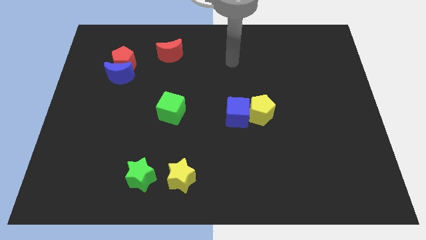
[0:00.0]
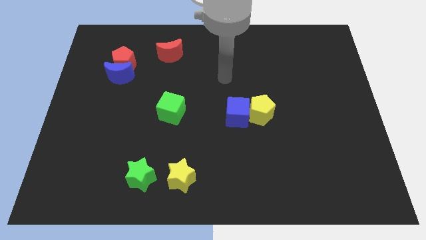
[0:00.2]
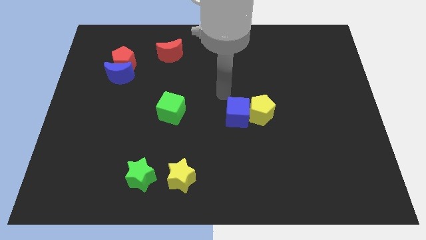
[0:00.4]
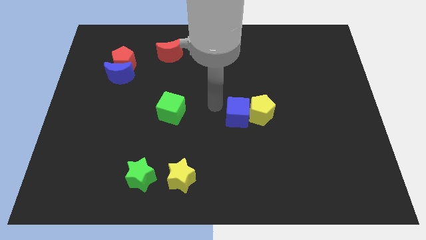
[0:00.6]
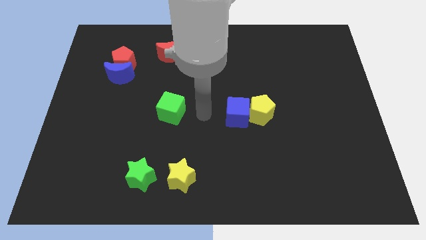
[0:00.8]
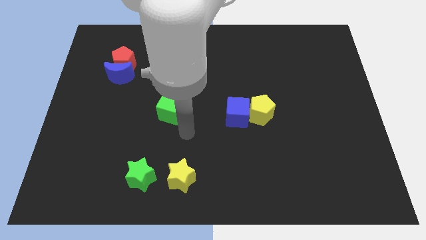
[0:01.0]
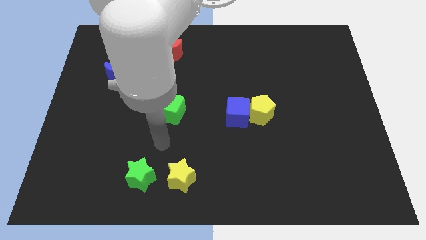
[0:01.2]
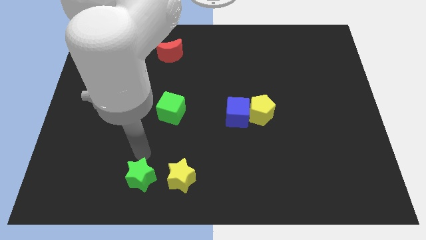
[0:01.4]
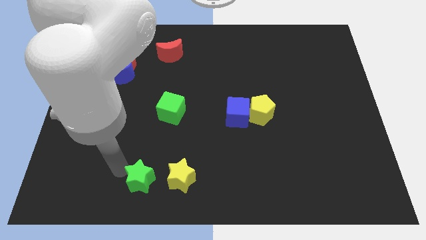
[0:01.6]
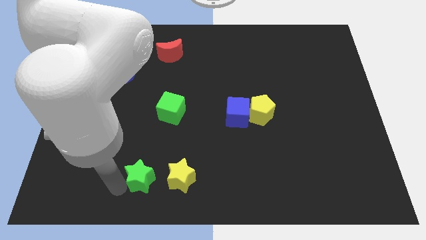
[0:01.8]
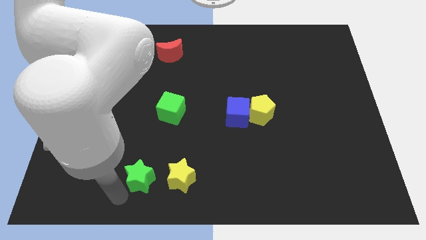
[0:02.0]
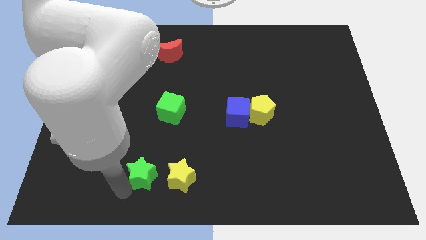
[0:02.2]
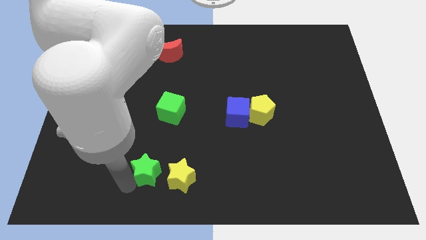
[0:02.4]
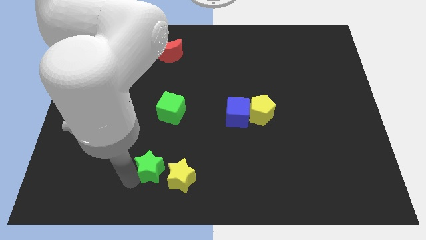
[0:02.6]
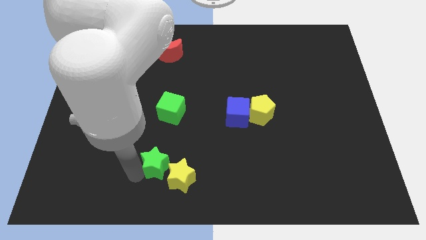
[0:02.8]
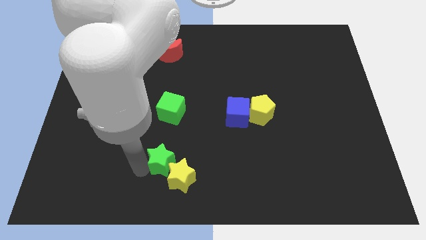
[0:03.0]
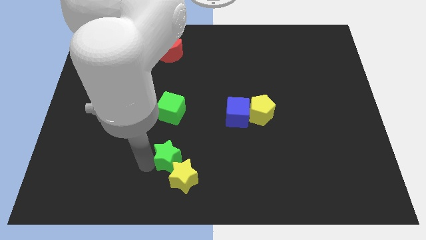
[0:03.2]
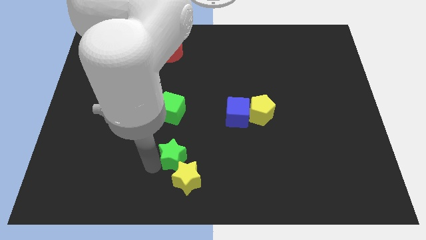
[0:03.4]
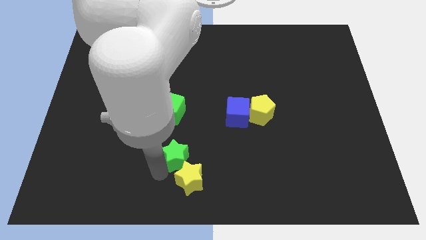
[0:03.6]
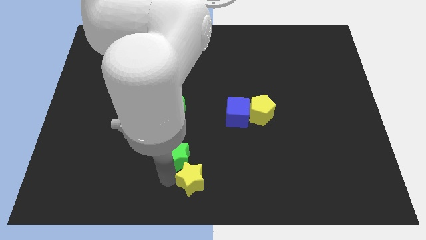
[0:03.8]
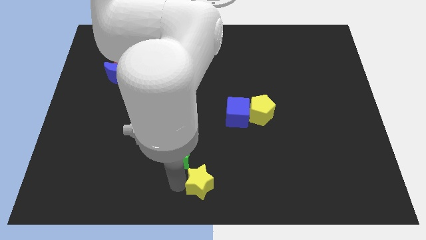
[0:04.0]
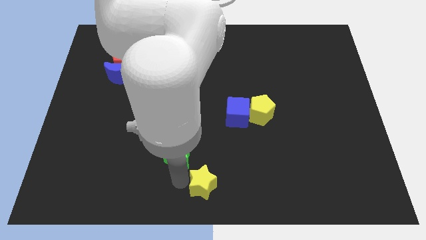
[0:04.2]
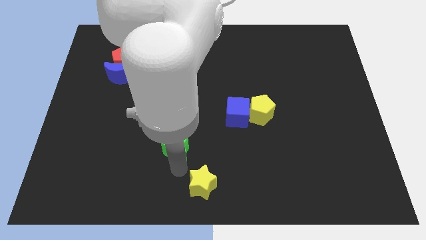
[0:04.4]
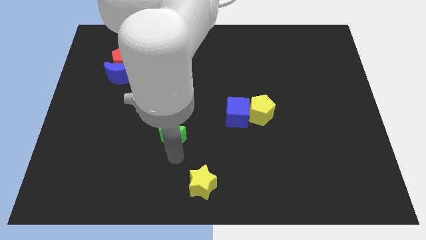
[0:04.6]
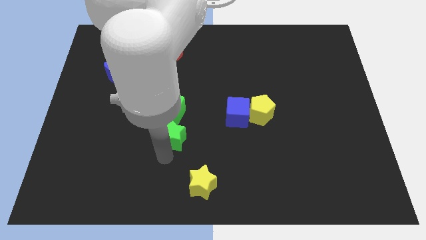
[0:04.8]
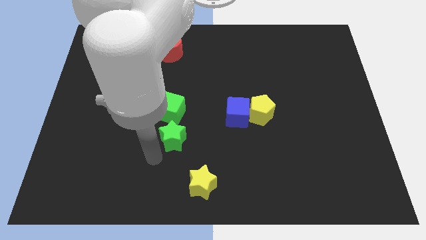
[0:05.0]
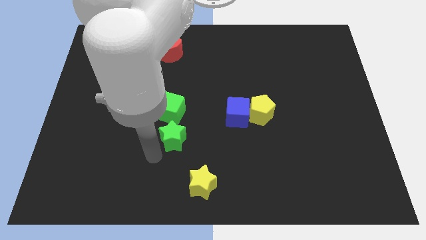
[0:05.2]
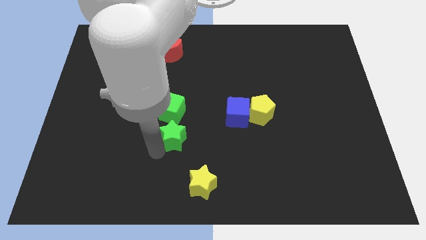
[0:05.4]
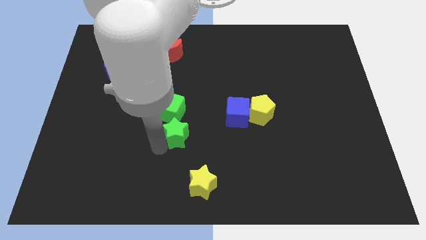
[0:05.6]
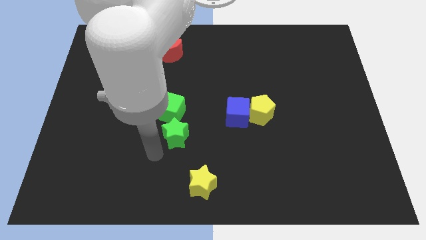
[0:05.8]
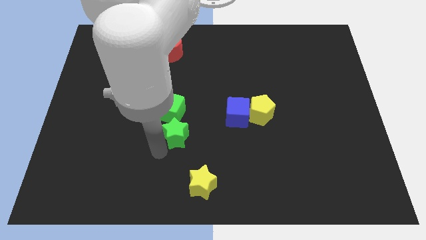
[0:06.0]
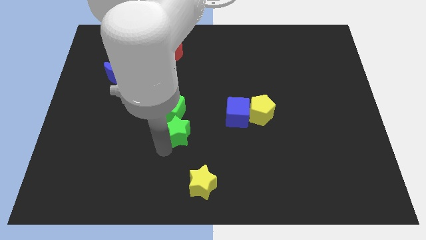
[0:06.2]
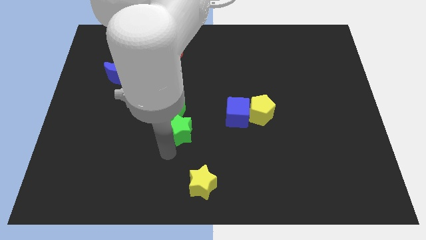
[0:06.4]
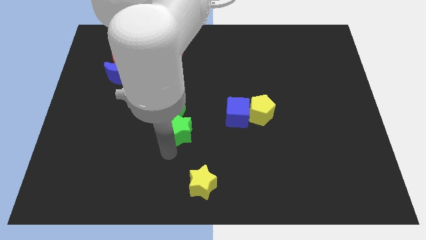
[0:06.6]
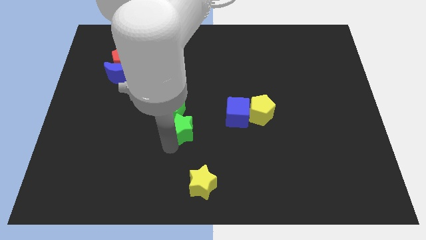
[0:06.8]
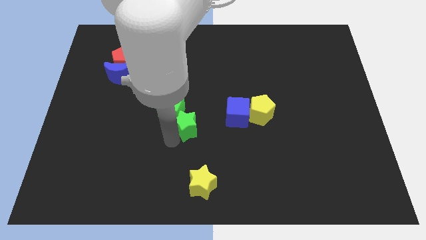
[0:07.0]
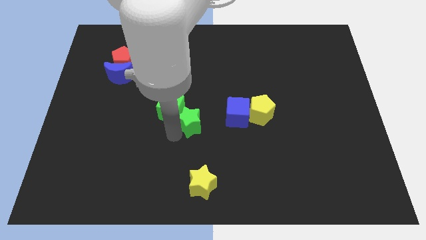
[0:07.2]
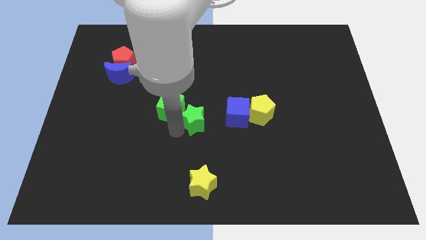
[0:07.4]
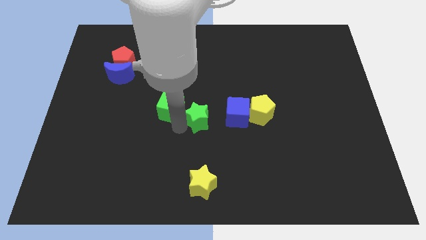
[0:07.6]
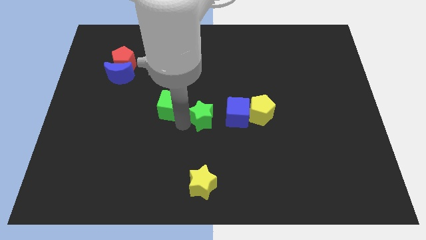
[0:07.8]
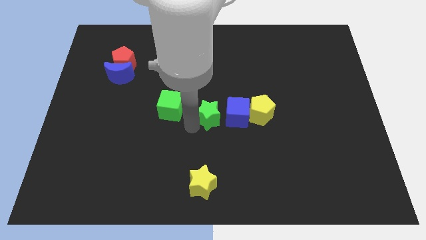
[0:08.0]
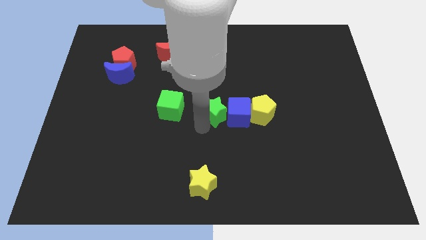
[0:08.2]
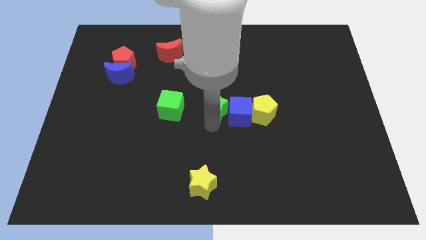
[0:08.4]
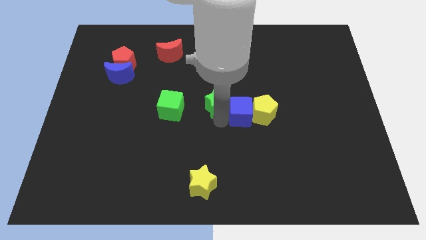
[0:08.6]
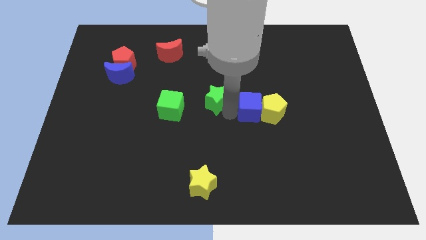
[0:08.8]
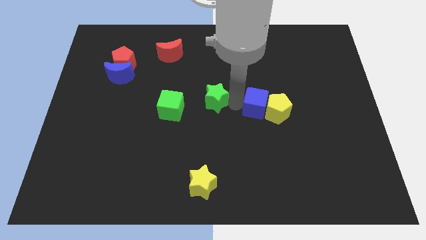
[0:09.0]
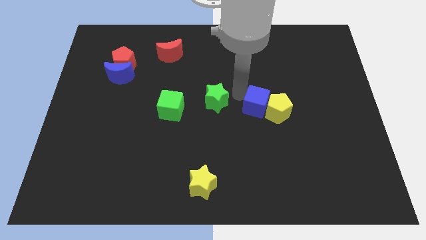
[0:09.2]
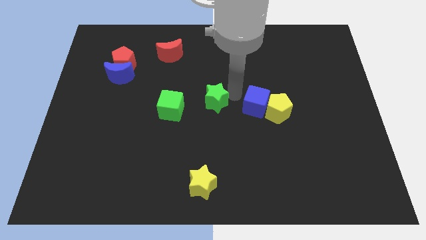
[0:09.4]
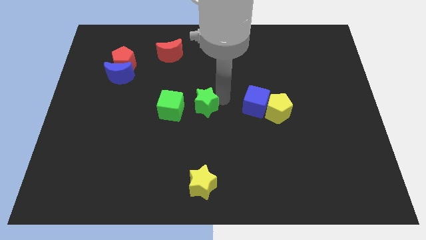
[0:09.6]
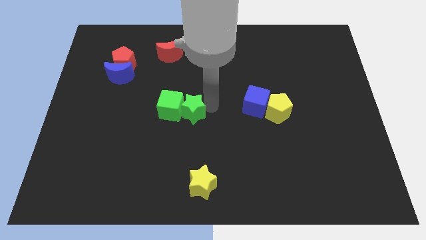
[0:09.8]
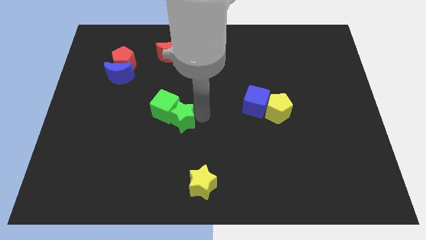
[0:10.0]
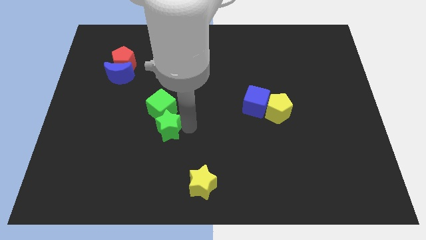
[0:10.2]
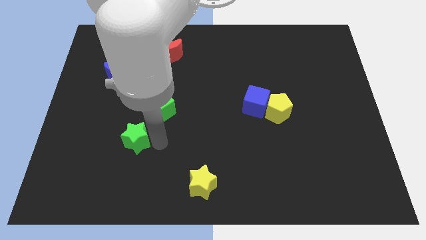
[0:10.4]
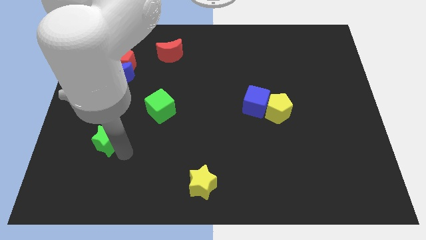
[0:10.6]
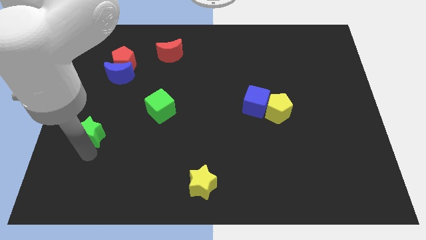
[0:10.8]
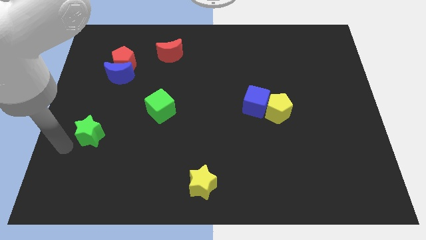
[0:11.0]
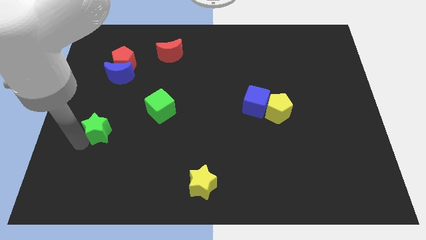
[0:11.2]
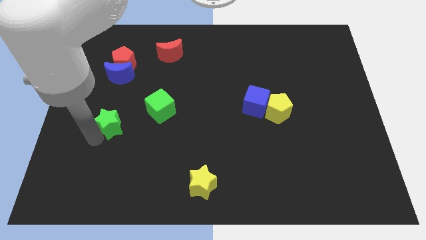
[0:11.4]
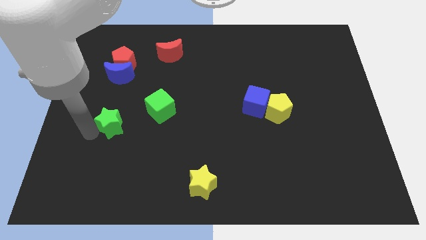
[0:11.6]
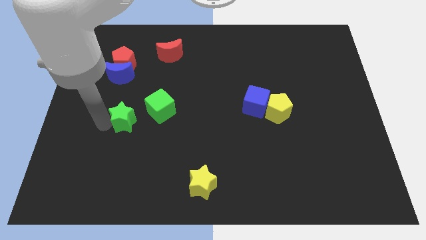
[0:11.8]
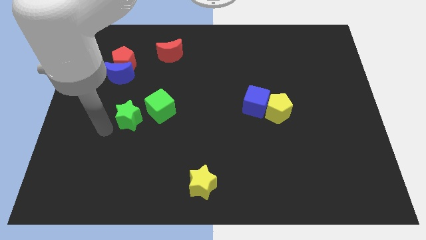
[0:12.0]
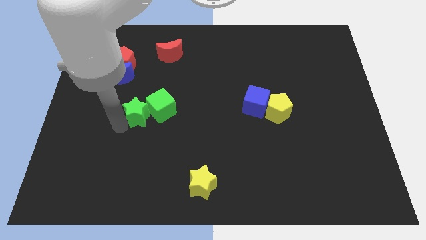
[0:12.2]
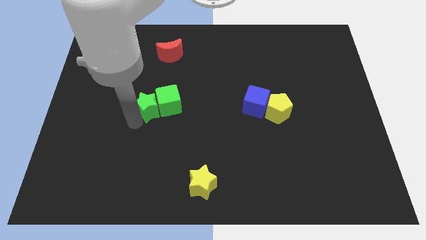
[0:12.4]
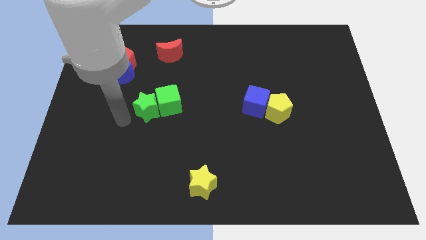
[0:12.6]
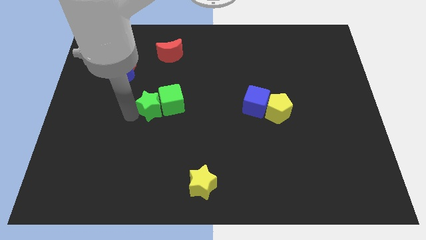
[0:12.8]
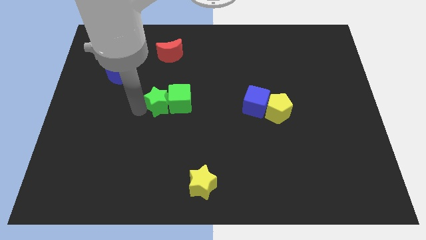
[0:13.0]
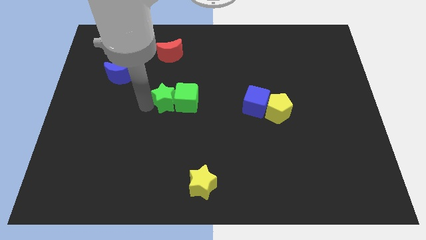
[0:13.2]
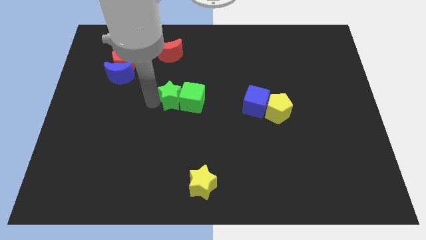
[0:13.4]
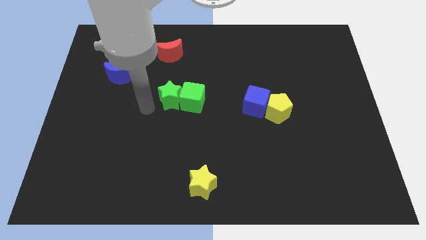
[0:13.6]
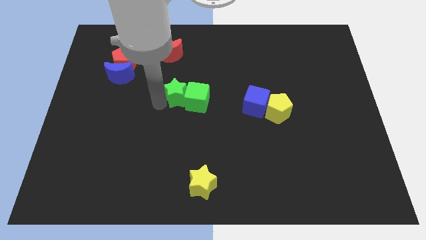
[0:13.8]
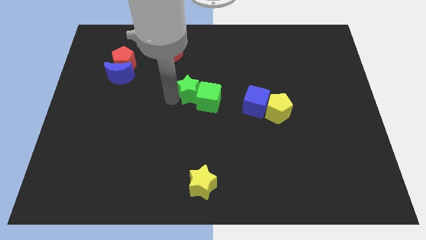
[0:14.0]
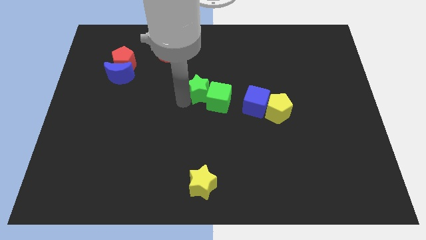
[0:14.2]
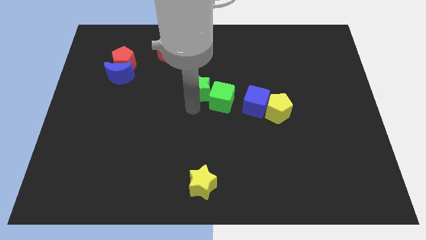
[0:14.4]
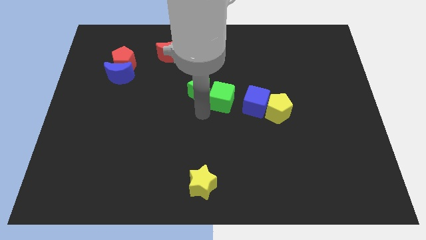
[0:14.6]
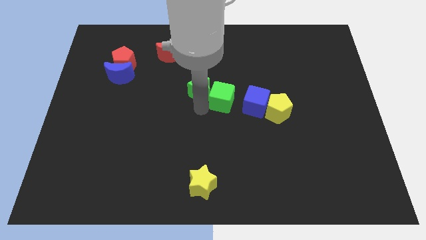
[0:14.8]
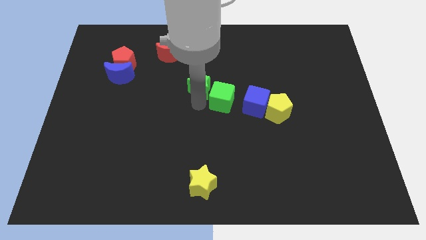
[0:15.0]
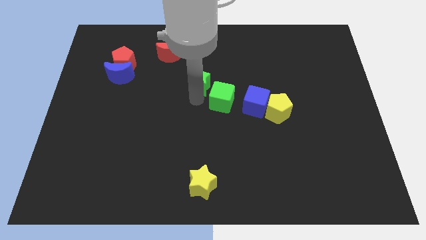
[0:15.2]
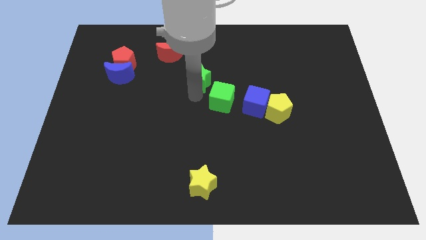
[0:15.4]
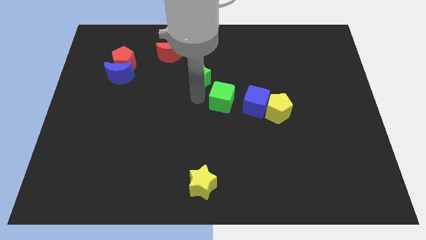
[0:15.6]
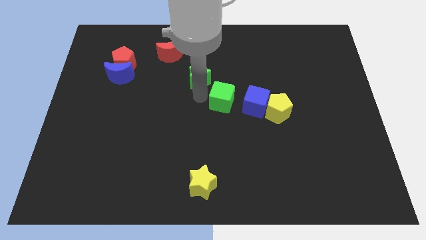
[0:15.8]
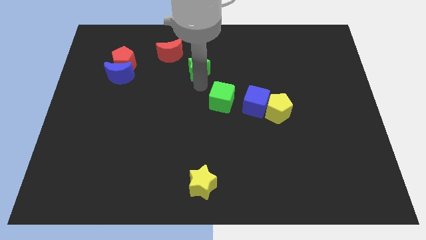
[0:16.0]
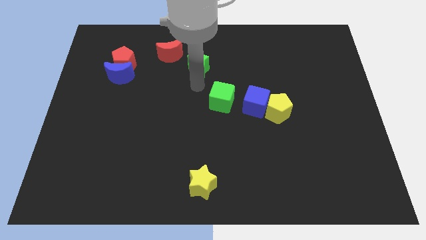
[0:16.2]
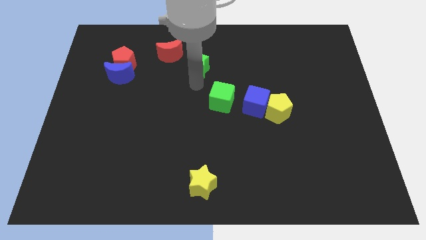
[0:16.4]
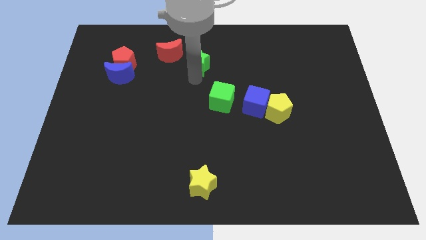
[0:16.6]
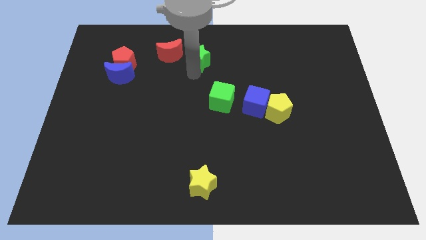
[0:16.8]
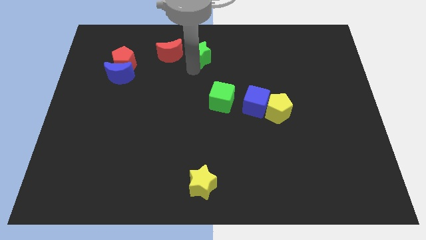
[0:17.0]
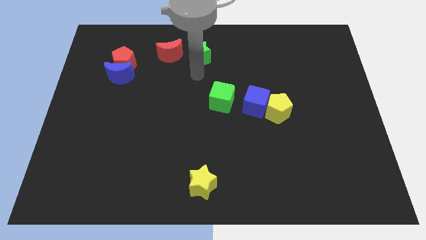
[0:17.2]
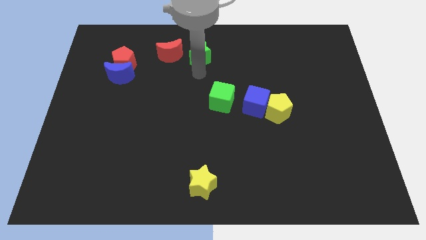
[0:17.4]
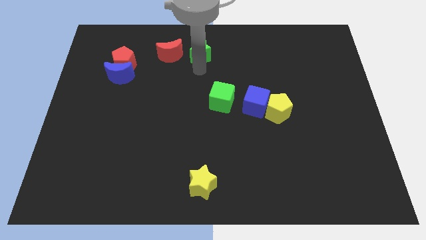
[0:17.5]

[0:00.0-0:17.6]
push the green star to the towards your base
